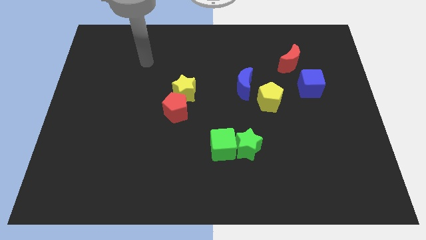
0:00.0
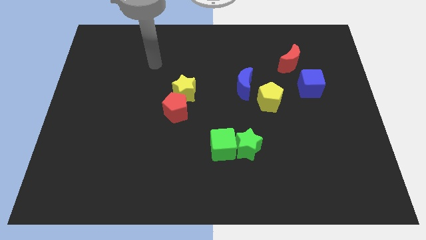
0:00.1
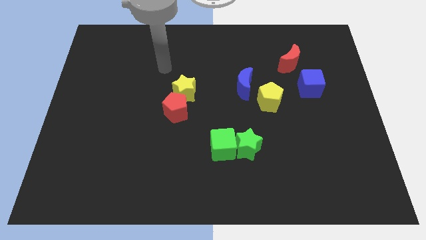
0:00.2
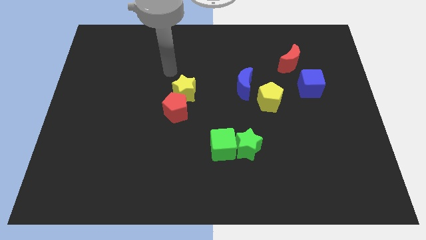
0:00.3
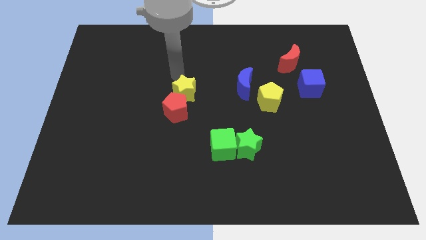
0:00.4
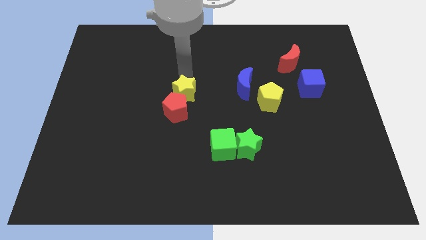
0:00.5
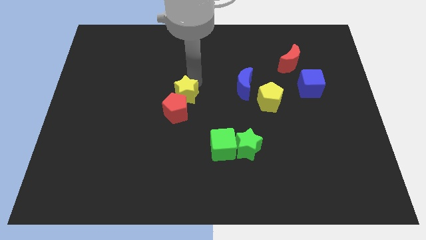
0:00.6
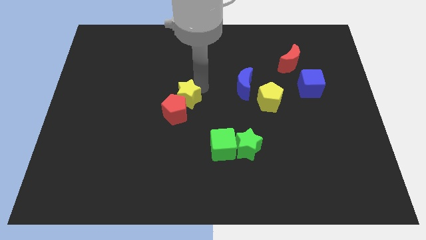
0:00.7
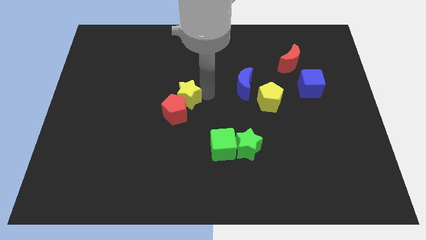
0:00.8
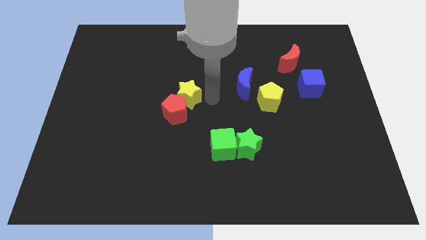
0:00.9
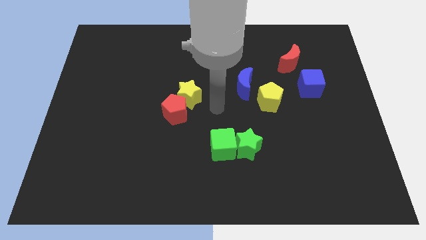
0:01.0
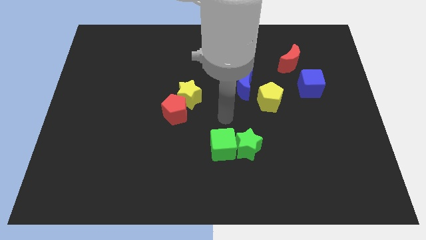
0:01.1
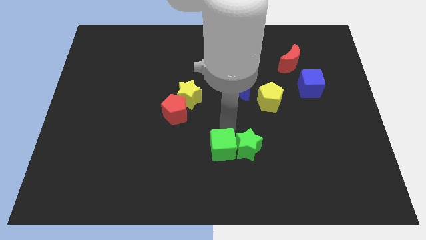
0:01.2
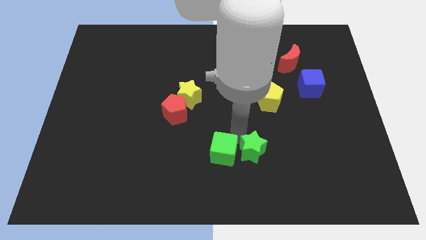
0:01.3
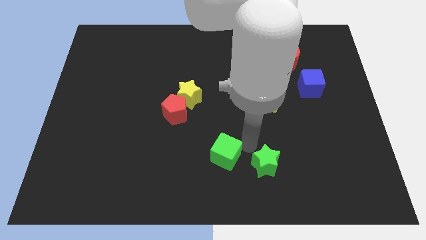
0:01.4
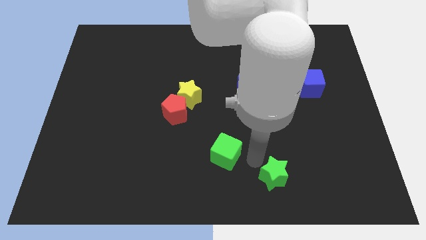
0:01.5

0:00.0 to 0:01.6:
pull the green cube apart from the green star

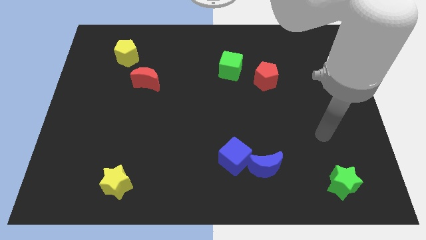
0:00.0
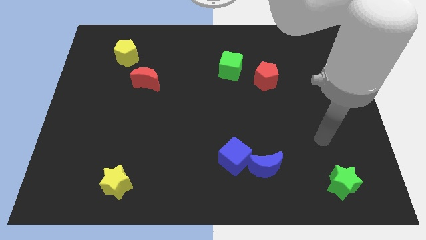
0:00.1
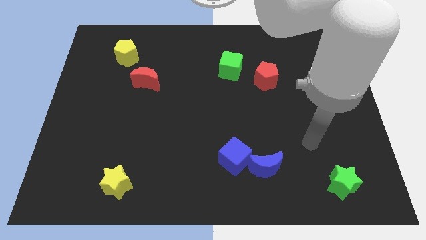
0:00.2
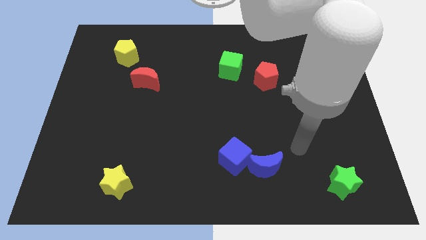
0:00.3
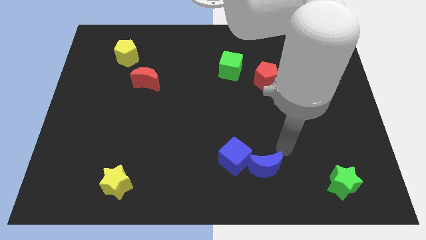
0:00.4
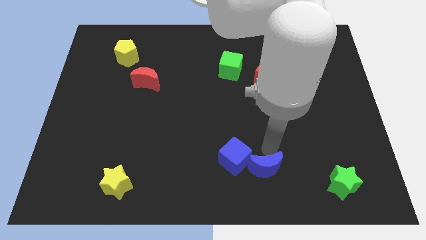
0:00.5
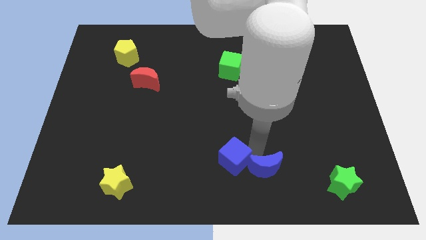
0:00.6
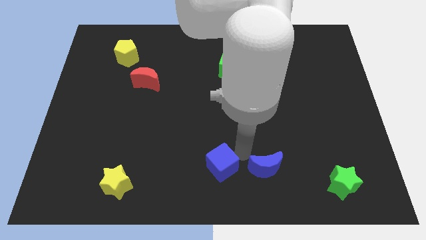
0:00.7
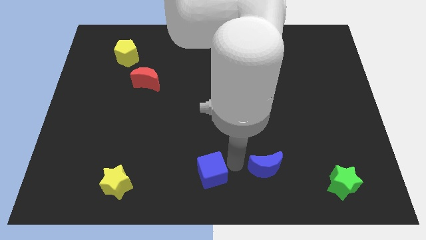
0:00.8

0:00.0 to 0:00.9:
pull the blue moon apart from the blue cube

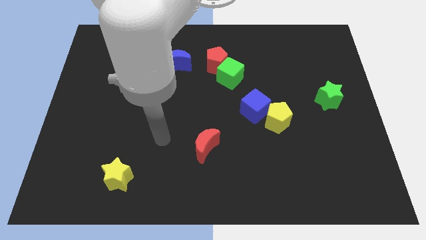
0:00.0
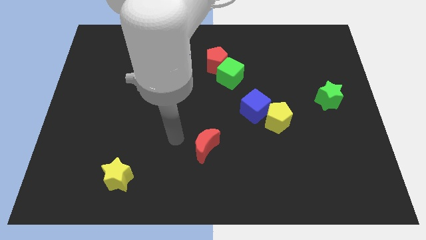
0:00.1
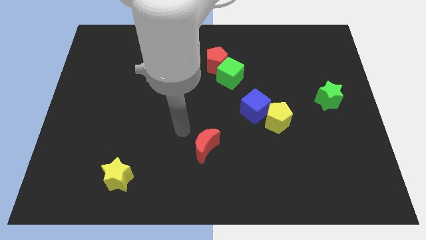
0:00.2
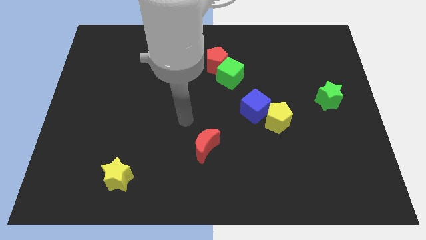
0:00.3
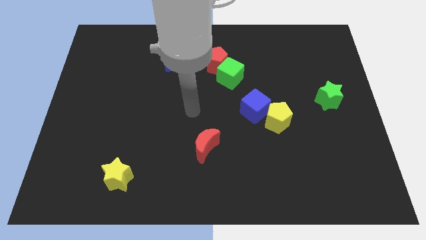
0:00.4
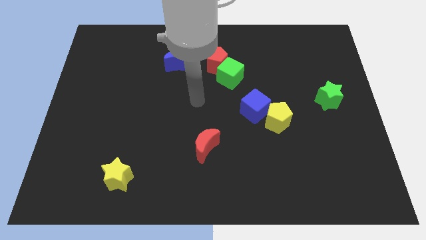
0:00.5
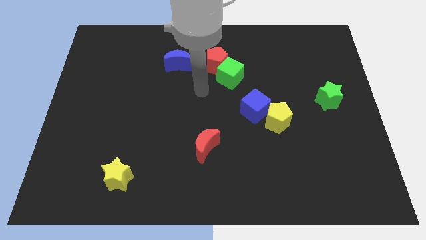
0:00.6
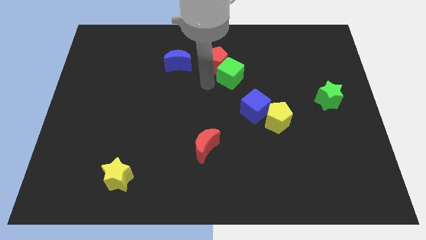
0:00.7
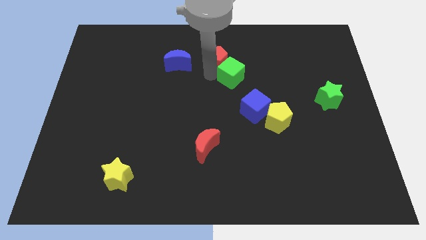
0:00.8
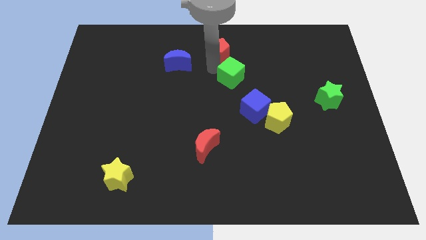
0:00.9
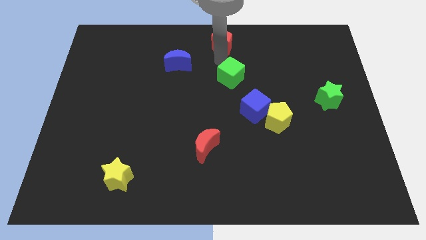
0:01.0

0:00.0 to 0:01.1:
move the green cube away from the red pentagon

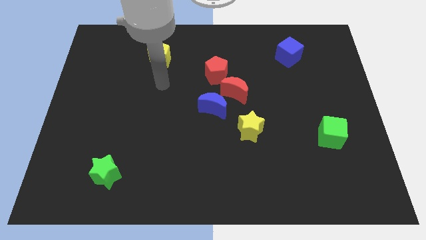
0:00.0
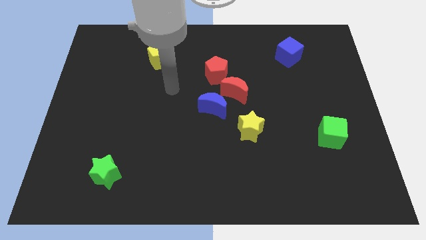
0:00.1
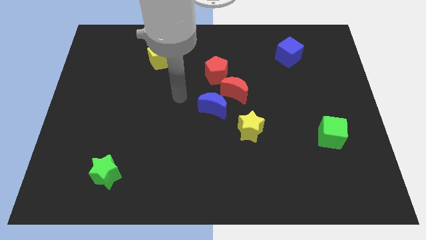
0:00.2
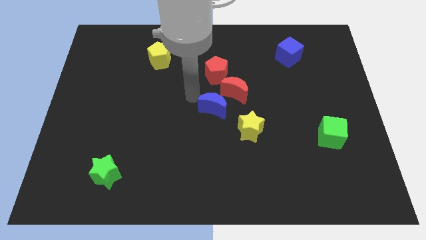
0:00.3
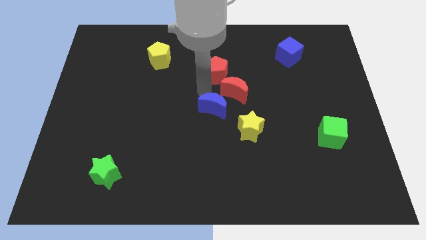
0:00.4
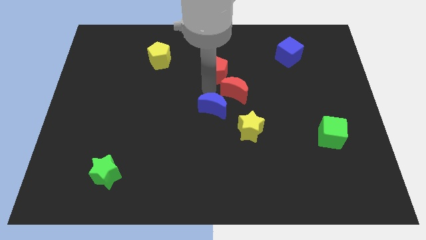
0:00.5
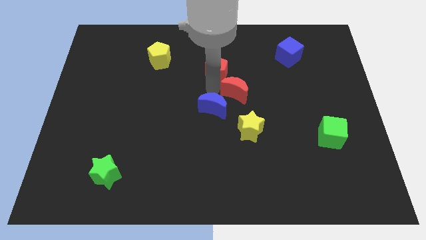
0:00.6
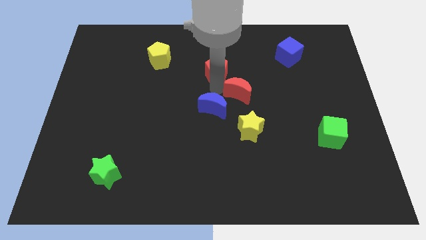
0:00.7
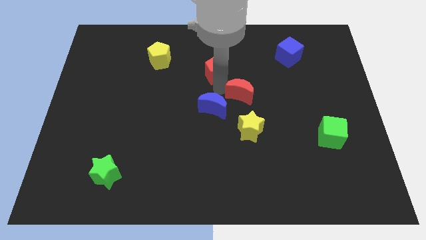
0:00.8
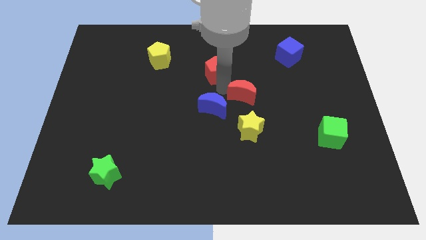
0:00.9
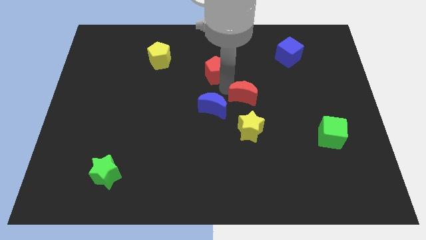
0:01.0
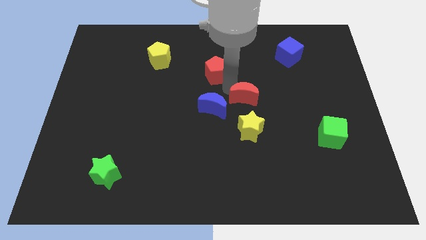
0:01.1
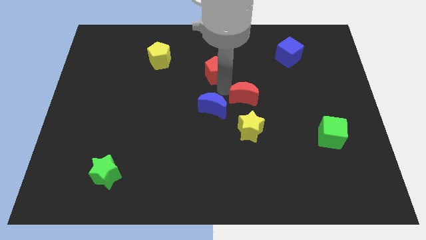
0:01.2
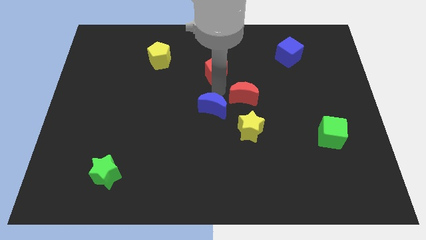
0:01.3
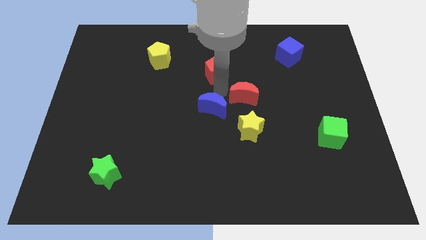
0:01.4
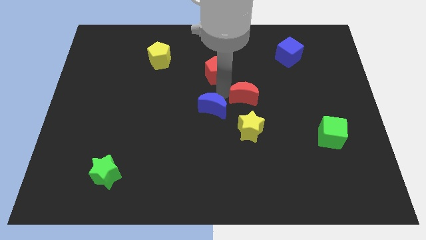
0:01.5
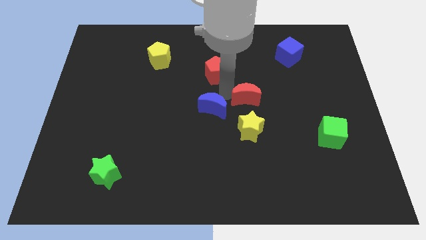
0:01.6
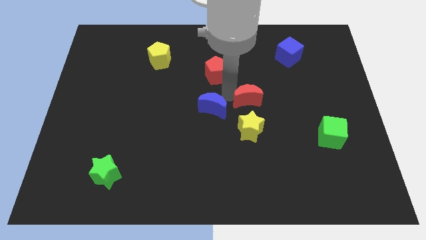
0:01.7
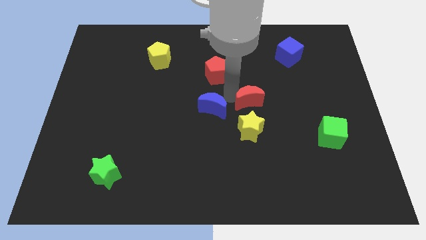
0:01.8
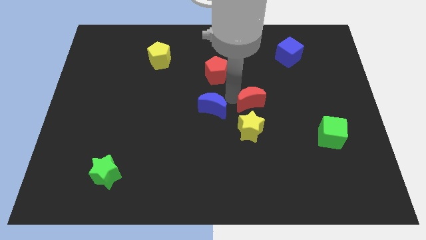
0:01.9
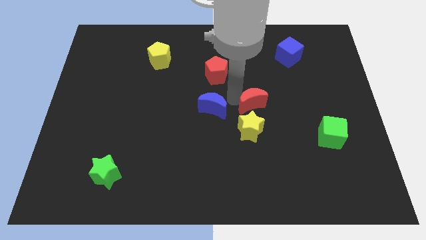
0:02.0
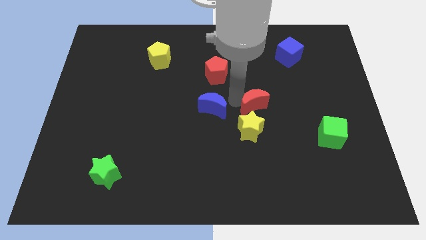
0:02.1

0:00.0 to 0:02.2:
move the red moon away from the blue moon and red pentagon

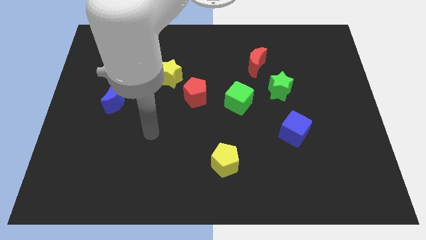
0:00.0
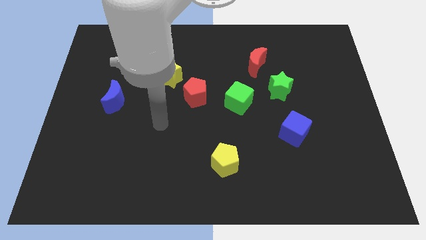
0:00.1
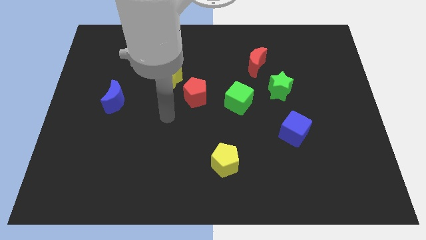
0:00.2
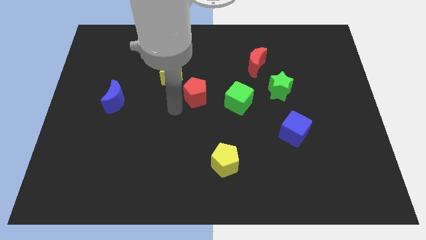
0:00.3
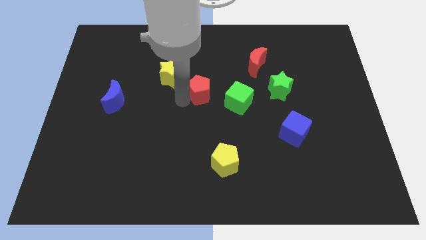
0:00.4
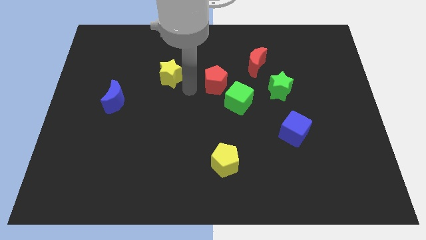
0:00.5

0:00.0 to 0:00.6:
move the yellow star away from the red pentagon

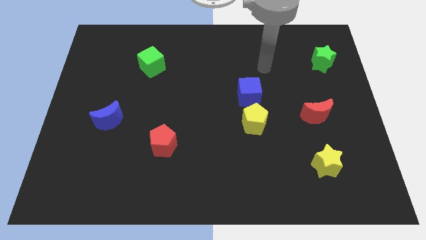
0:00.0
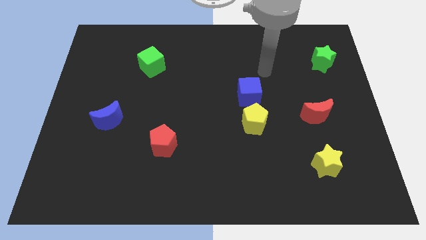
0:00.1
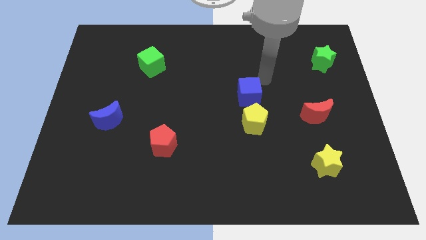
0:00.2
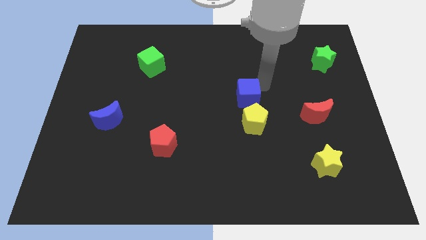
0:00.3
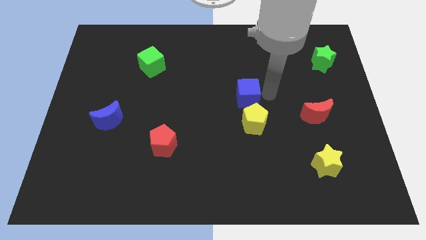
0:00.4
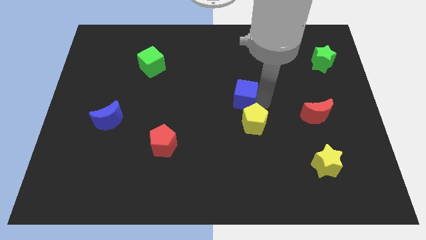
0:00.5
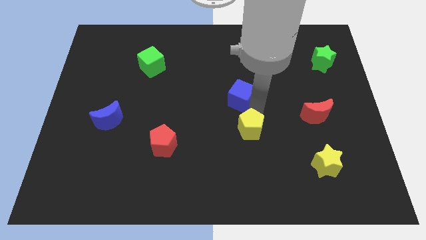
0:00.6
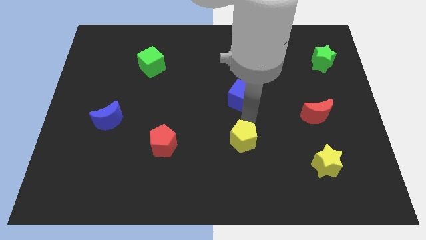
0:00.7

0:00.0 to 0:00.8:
move the blue cube away from the yellow pentagon

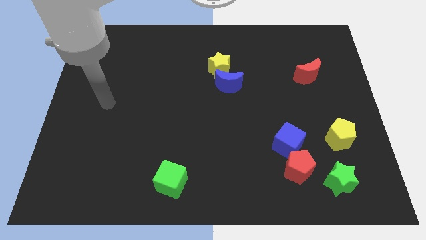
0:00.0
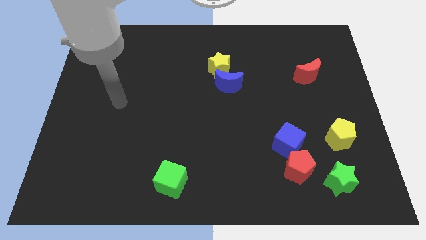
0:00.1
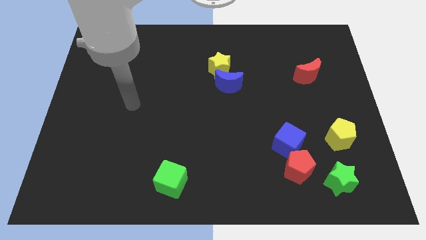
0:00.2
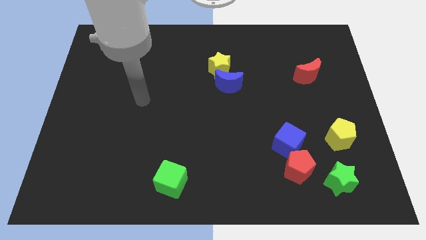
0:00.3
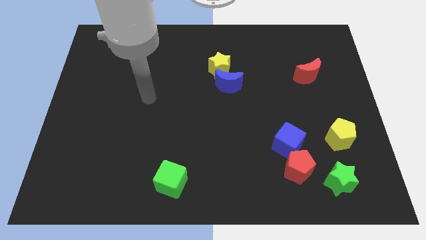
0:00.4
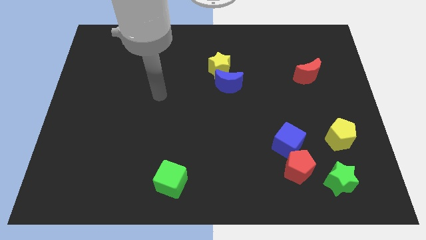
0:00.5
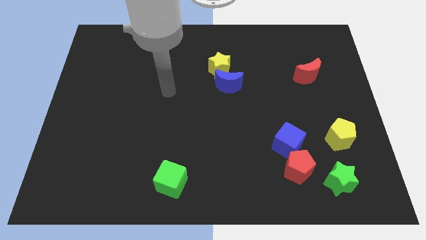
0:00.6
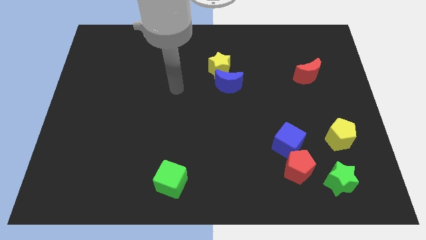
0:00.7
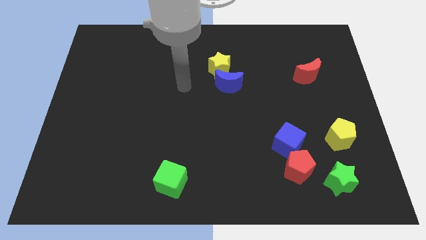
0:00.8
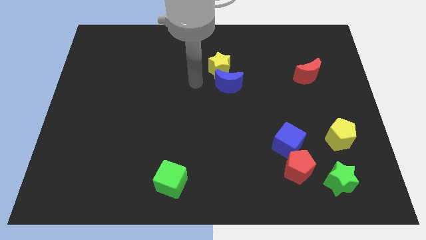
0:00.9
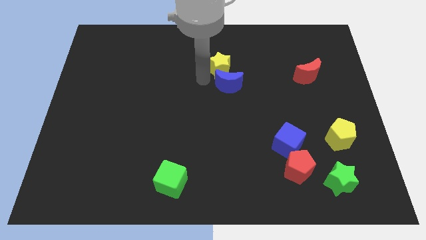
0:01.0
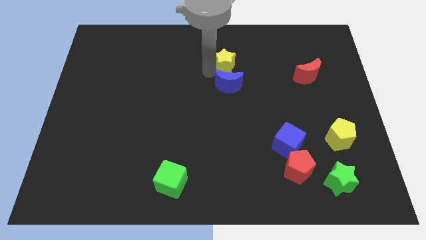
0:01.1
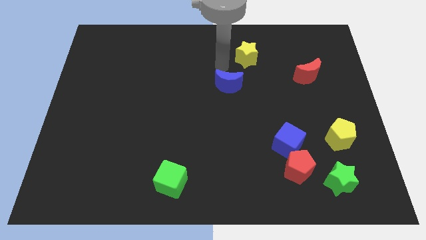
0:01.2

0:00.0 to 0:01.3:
pull the blue moon apart from the yellow star

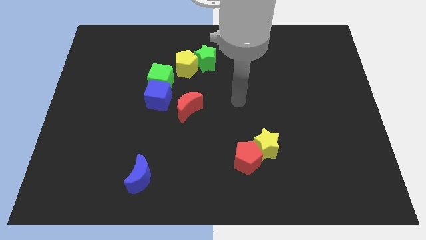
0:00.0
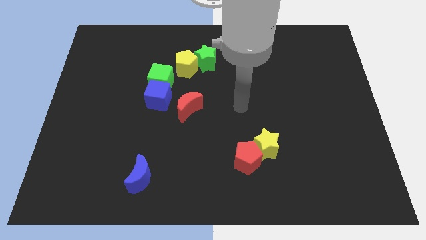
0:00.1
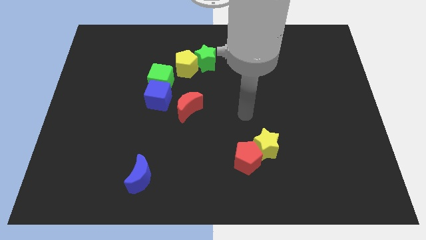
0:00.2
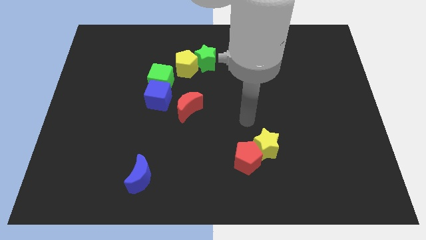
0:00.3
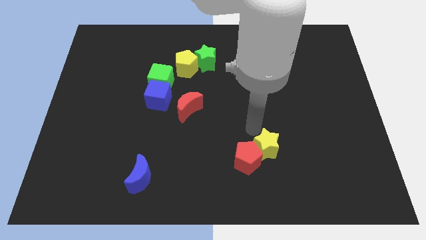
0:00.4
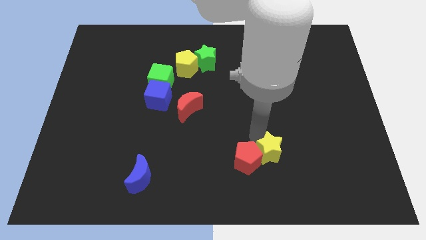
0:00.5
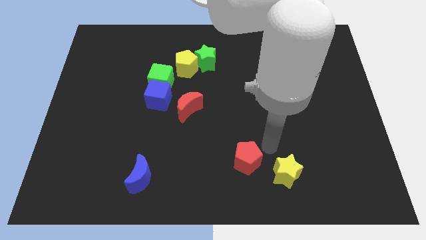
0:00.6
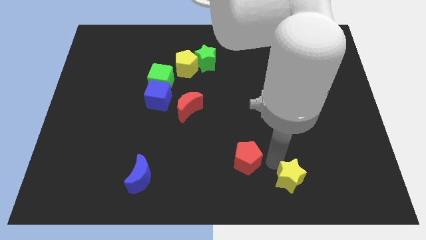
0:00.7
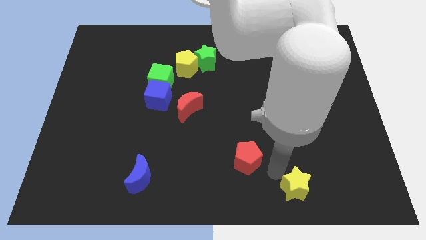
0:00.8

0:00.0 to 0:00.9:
separate the red pentagon from the yellow star
